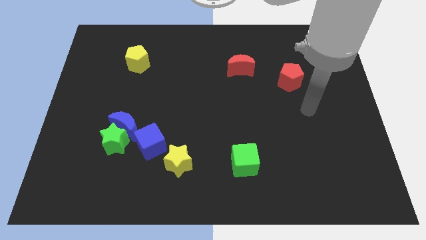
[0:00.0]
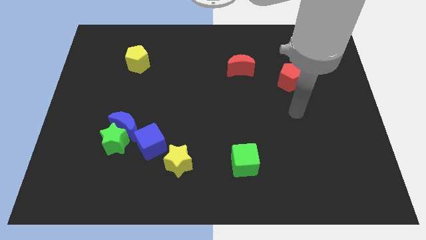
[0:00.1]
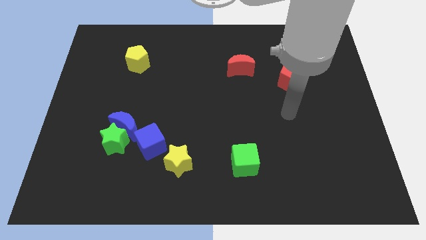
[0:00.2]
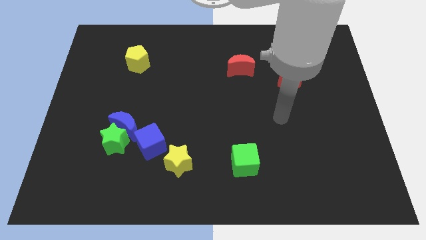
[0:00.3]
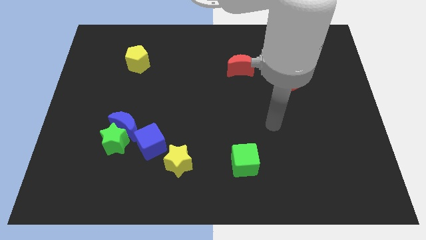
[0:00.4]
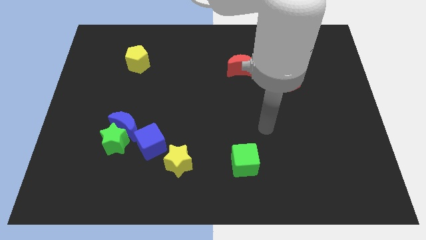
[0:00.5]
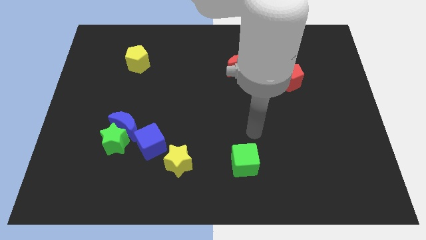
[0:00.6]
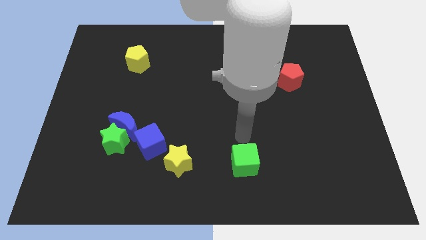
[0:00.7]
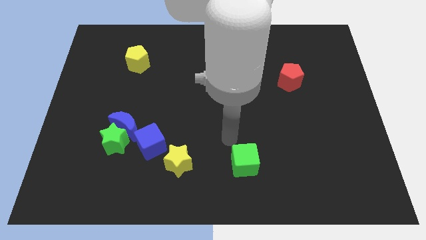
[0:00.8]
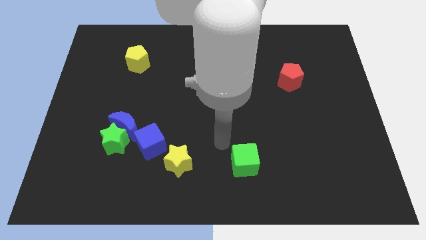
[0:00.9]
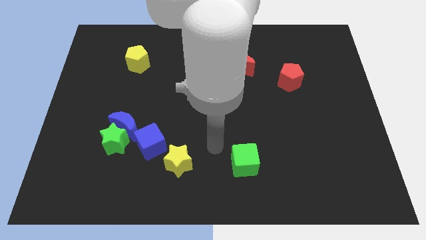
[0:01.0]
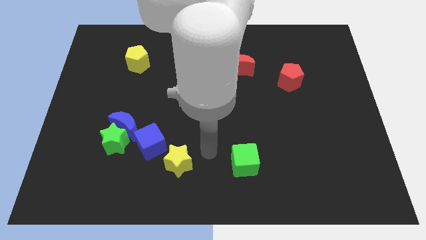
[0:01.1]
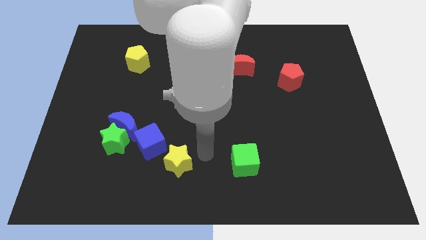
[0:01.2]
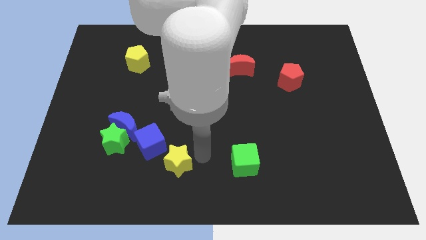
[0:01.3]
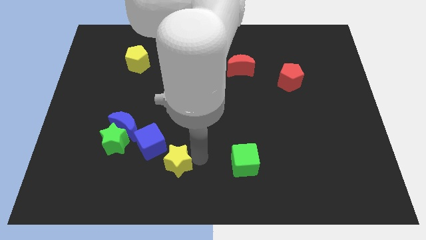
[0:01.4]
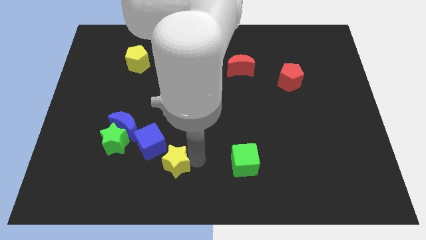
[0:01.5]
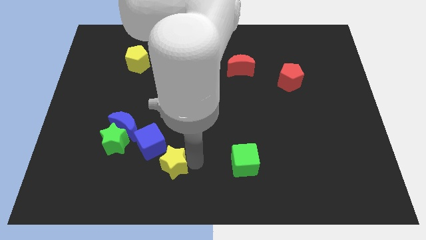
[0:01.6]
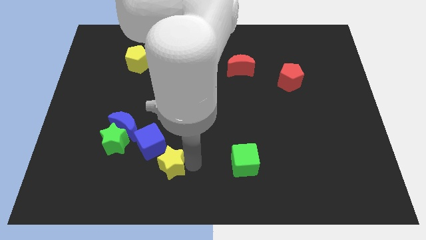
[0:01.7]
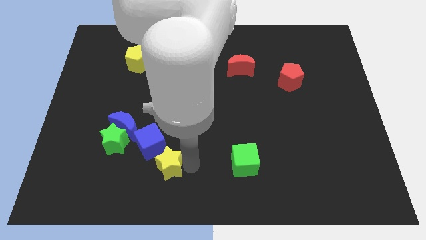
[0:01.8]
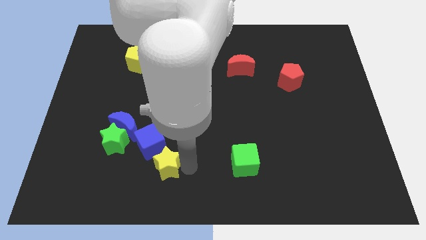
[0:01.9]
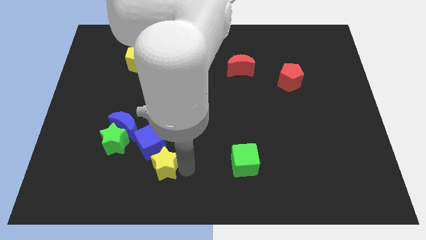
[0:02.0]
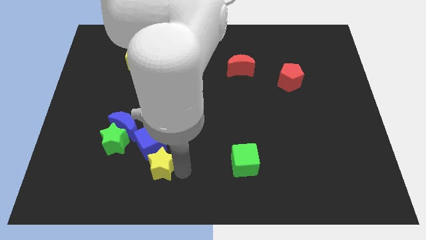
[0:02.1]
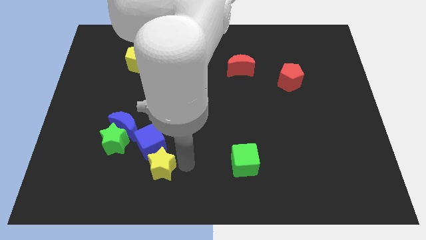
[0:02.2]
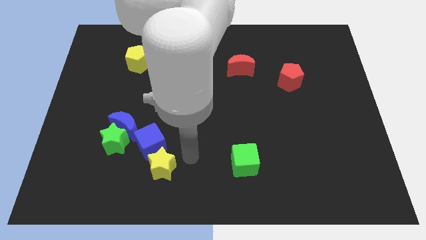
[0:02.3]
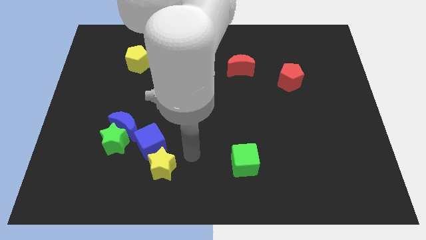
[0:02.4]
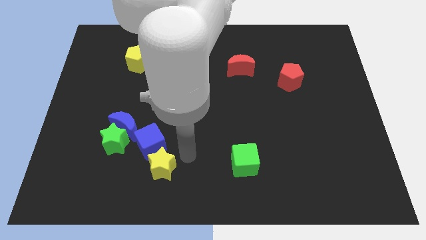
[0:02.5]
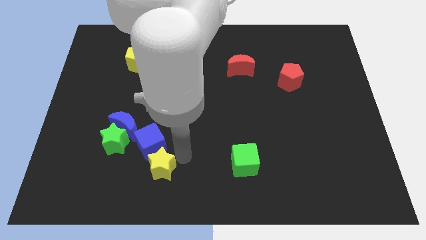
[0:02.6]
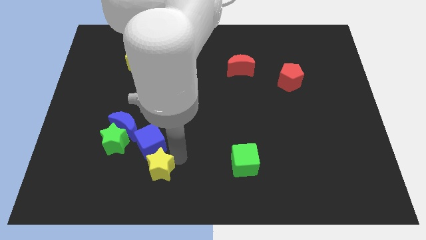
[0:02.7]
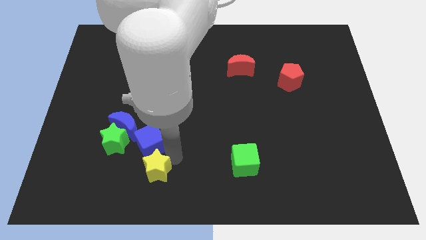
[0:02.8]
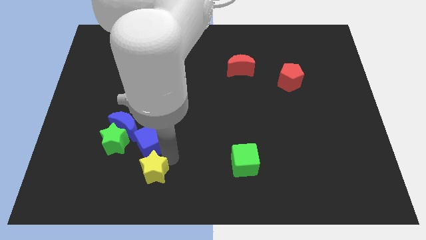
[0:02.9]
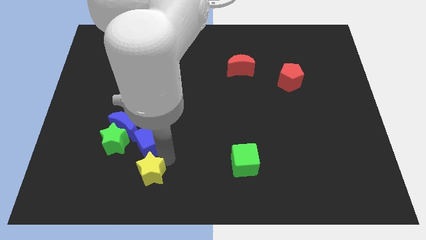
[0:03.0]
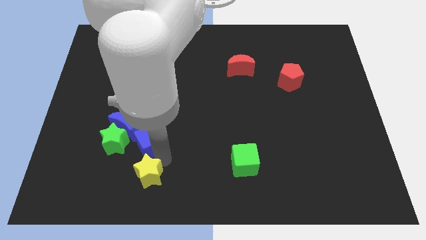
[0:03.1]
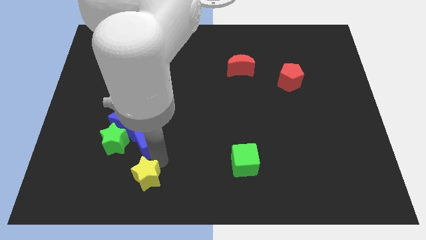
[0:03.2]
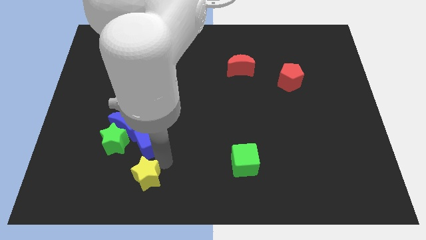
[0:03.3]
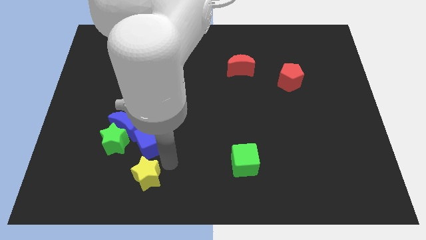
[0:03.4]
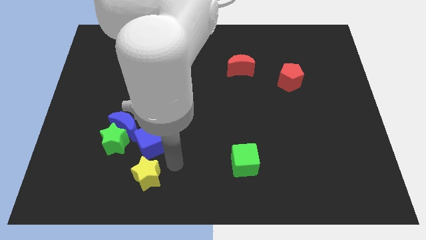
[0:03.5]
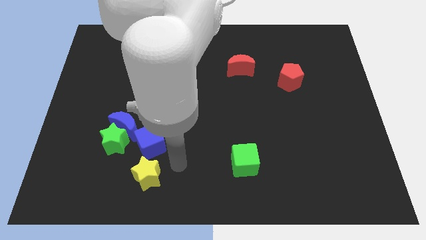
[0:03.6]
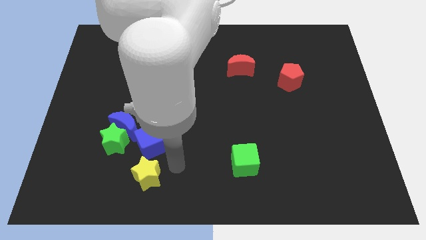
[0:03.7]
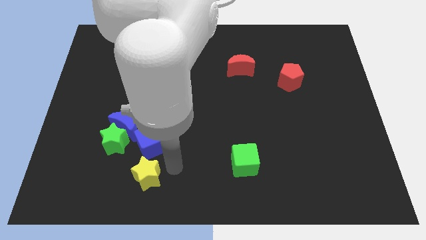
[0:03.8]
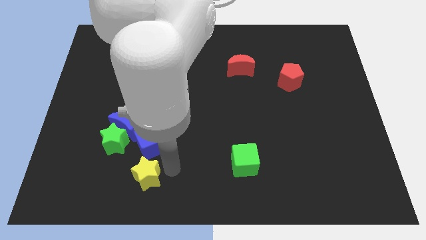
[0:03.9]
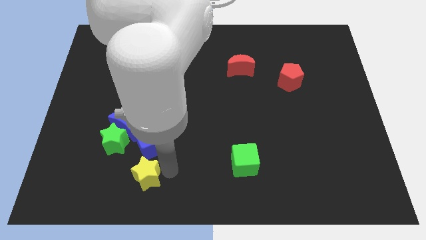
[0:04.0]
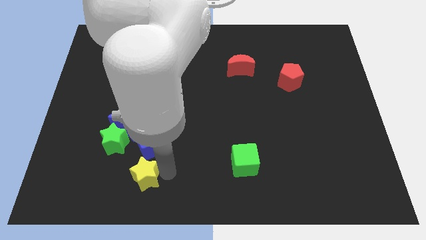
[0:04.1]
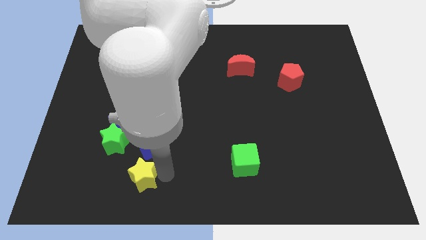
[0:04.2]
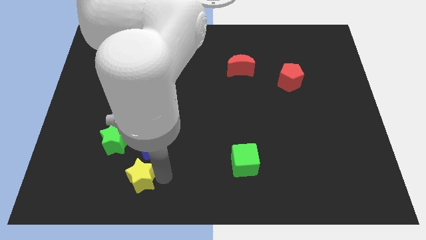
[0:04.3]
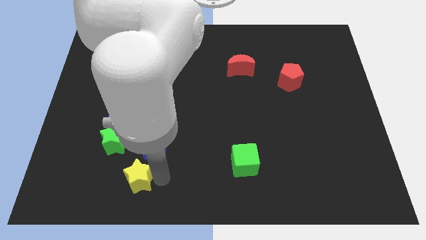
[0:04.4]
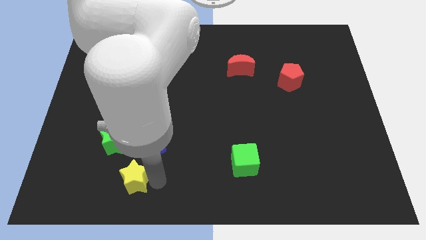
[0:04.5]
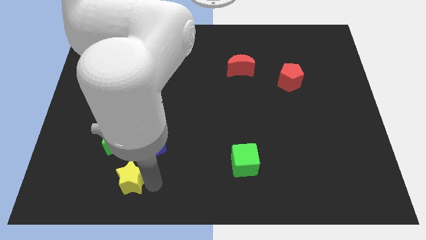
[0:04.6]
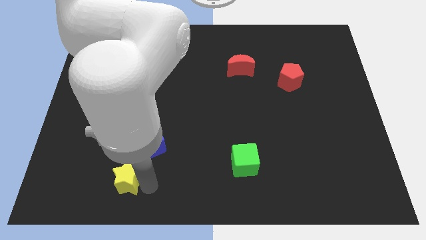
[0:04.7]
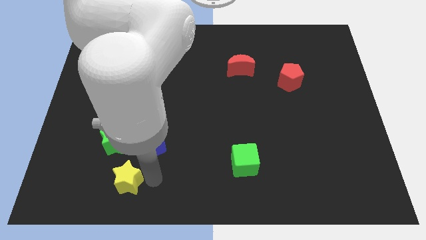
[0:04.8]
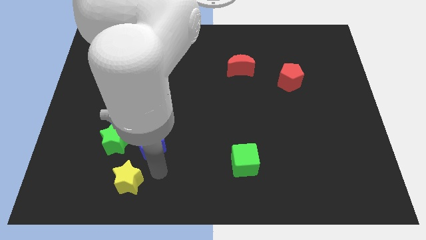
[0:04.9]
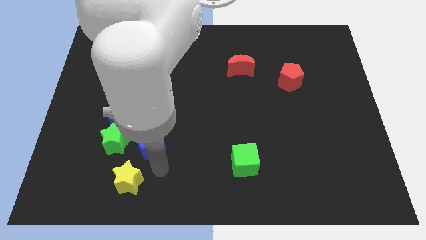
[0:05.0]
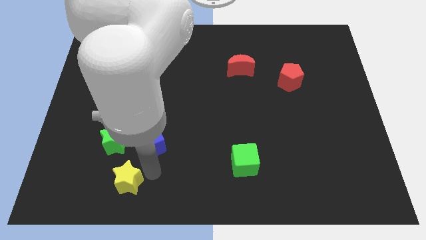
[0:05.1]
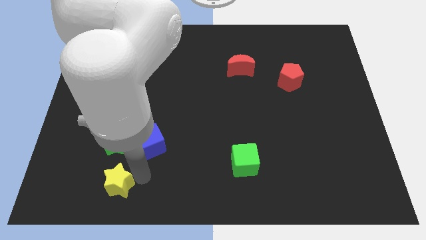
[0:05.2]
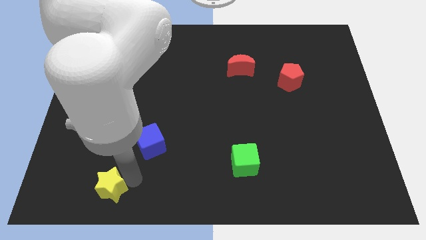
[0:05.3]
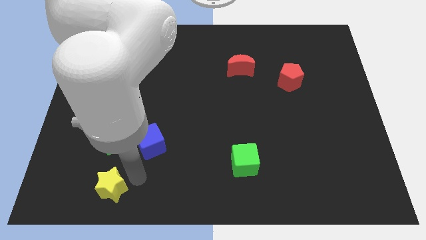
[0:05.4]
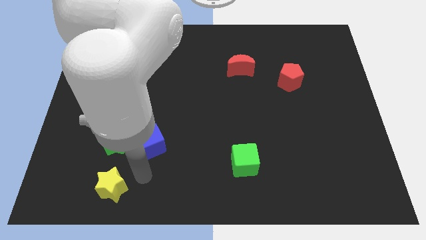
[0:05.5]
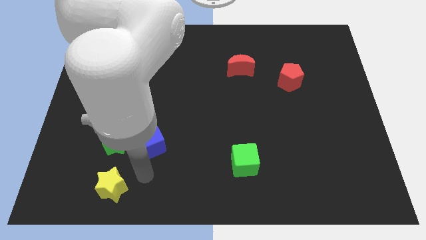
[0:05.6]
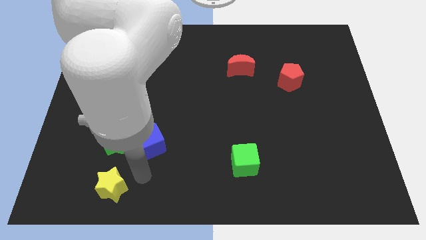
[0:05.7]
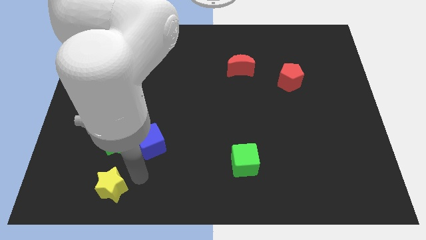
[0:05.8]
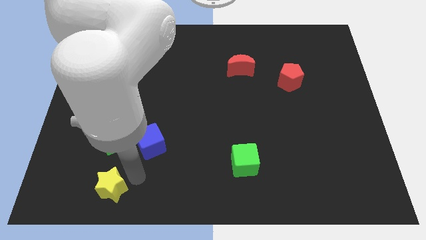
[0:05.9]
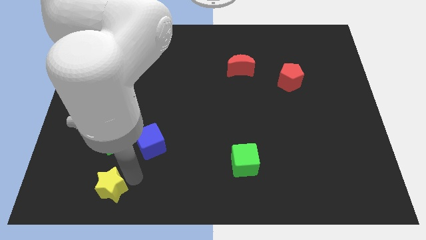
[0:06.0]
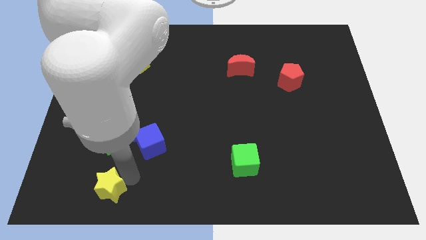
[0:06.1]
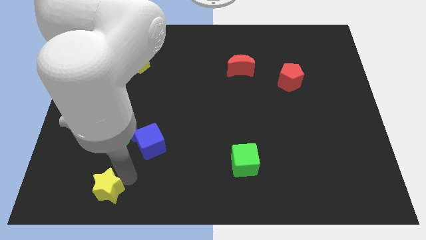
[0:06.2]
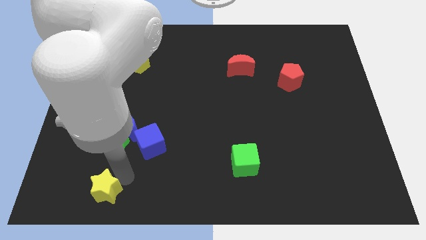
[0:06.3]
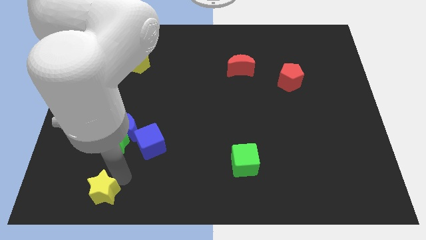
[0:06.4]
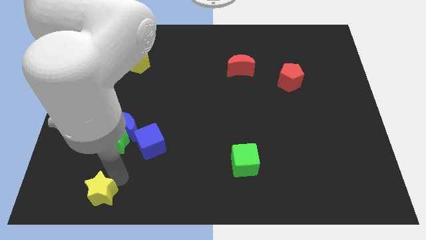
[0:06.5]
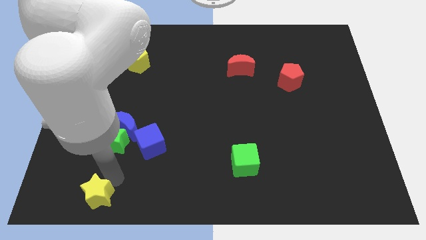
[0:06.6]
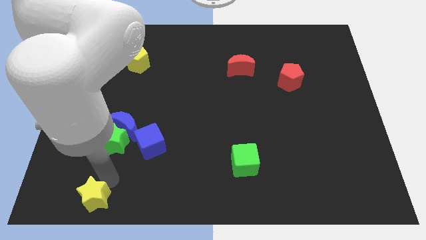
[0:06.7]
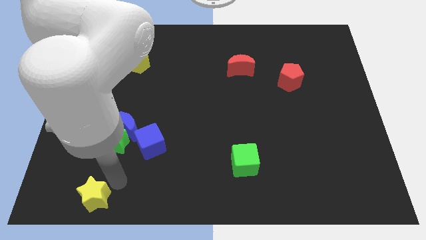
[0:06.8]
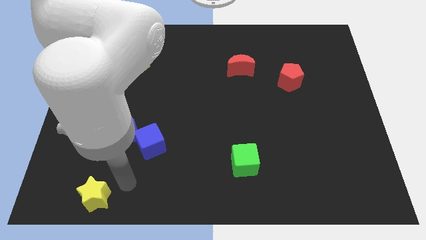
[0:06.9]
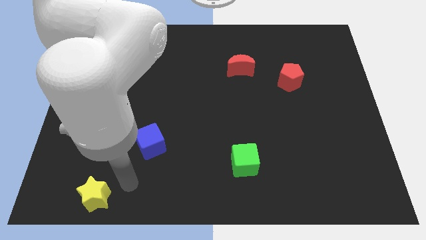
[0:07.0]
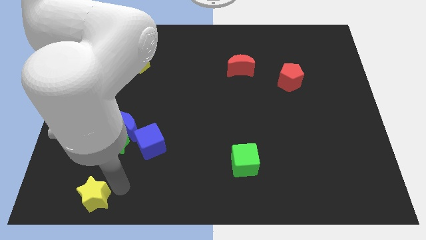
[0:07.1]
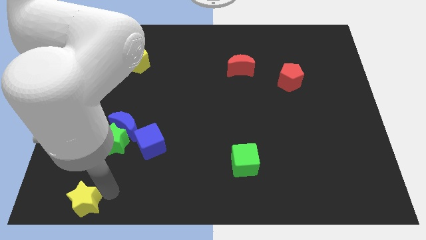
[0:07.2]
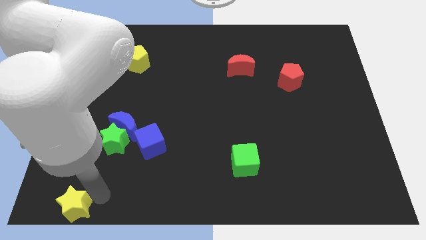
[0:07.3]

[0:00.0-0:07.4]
push the yellow star to the lower left corner
